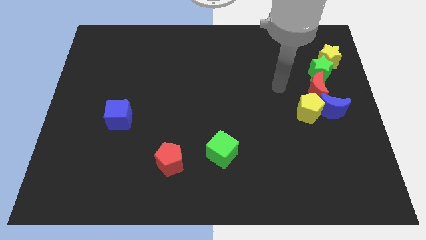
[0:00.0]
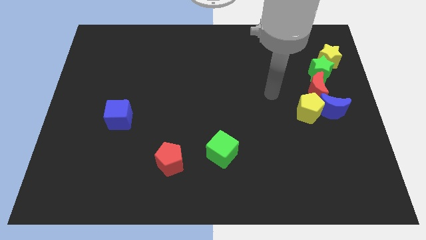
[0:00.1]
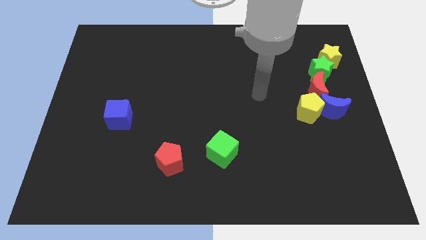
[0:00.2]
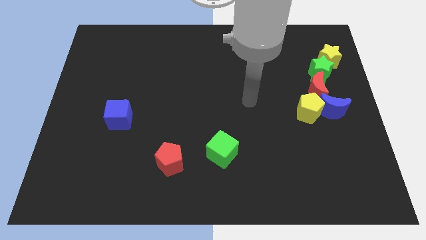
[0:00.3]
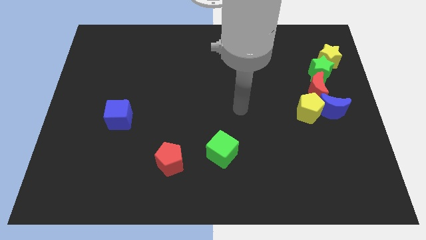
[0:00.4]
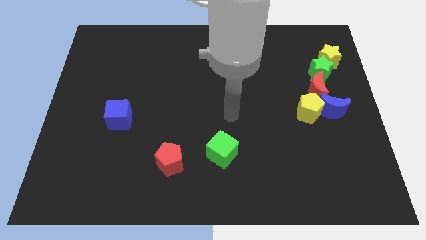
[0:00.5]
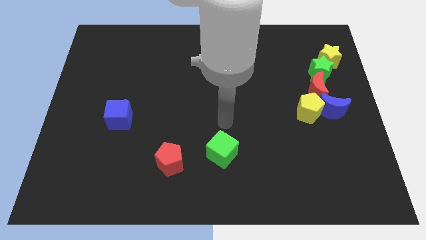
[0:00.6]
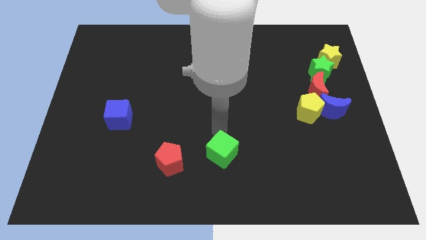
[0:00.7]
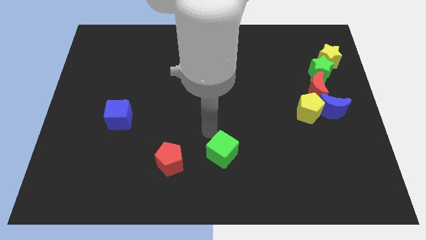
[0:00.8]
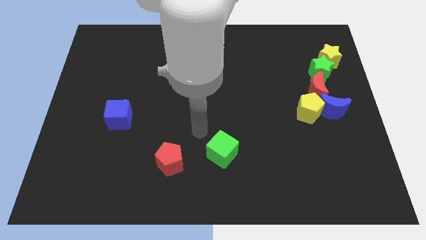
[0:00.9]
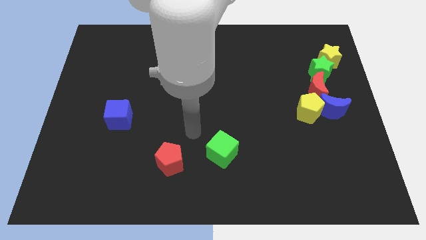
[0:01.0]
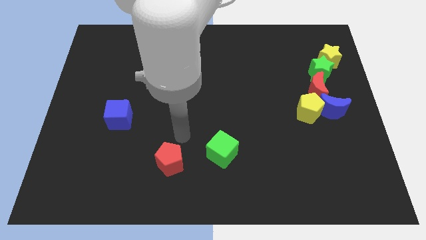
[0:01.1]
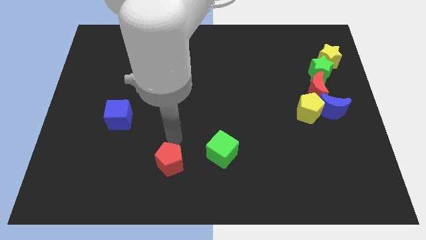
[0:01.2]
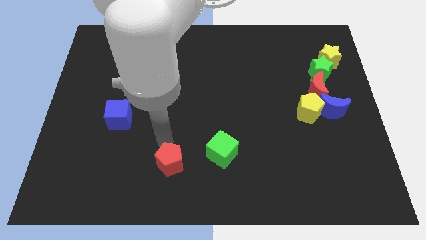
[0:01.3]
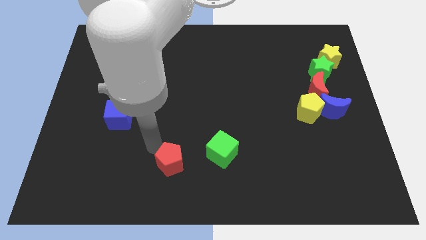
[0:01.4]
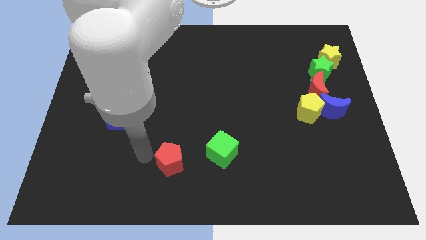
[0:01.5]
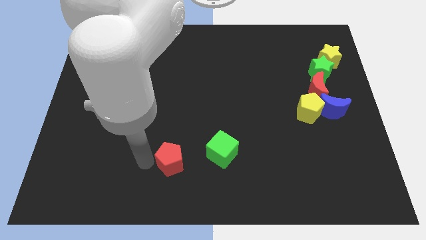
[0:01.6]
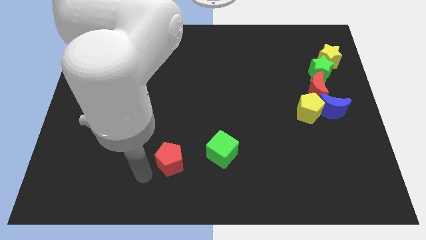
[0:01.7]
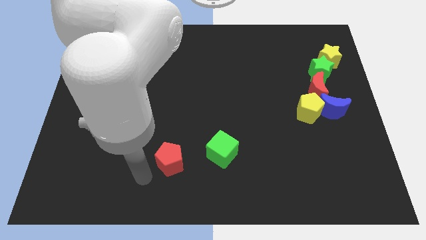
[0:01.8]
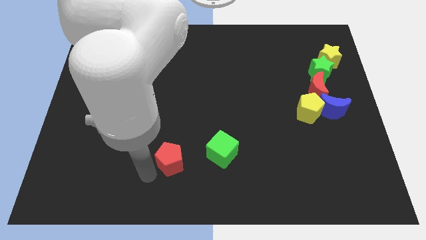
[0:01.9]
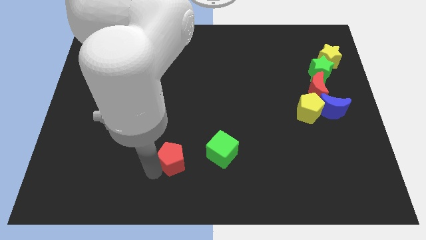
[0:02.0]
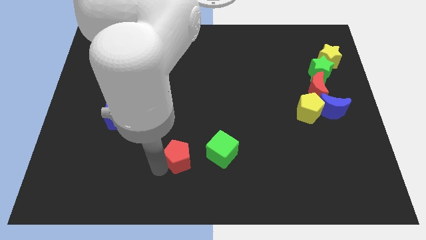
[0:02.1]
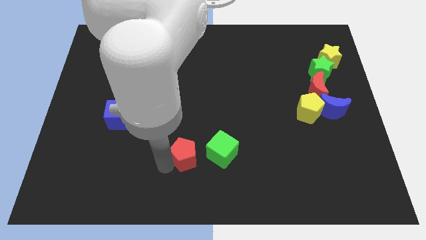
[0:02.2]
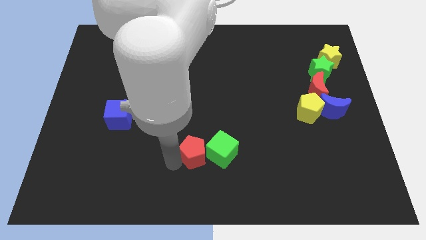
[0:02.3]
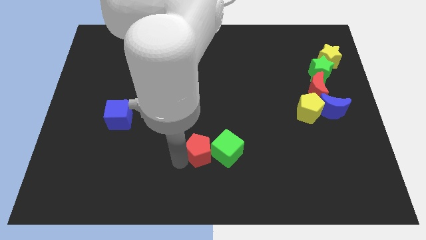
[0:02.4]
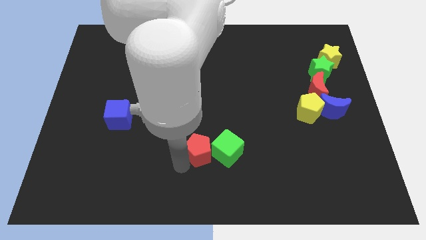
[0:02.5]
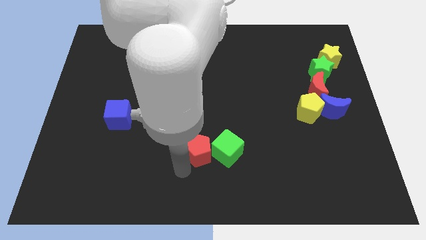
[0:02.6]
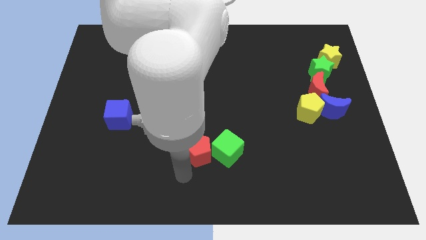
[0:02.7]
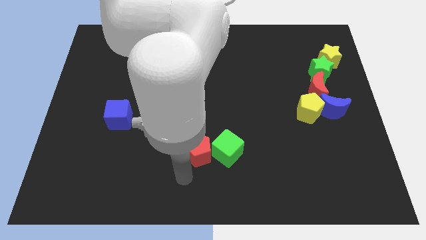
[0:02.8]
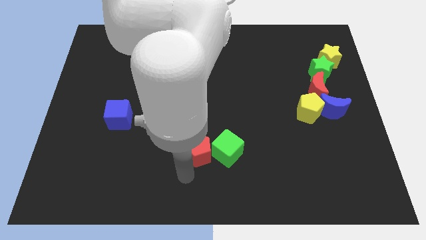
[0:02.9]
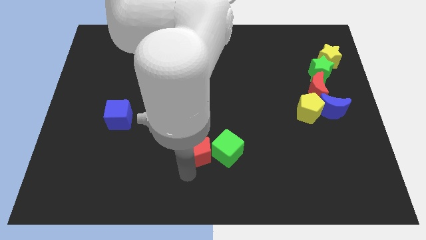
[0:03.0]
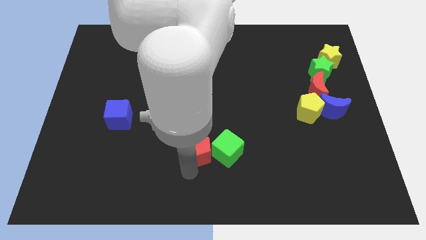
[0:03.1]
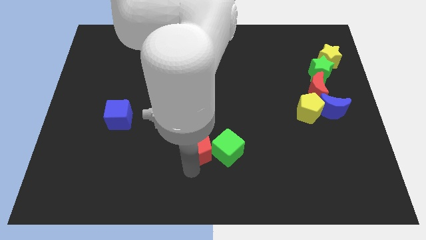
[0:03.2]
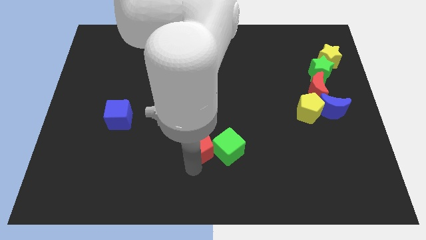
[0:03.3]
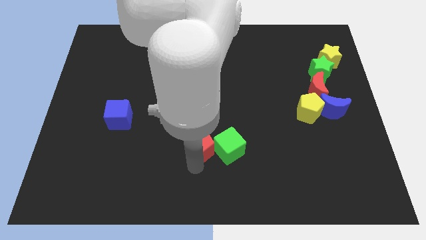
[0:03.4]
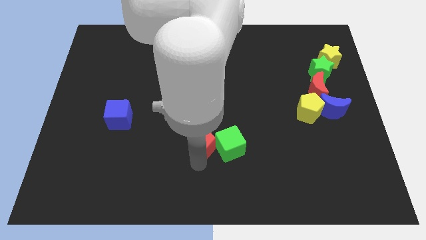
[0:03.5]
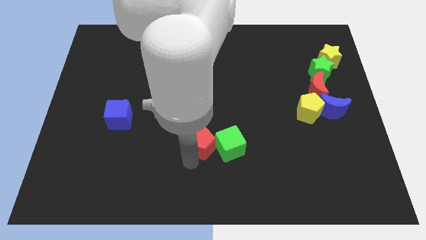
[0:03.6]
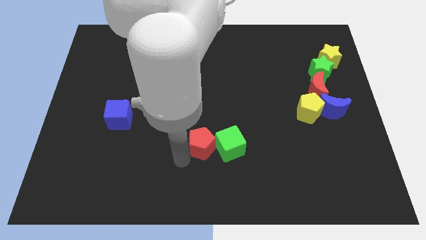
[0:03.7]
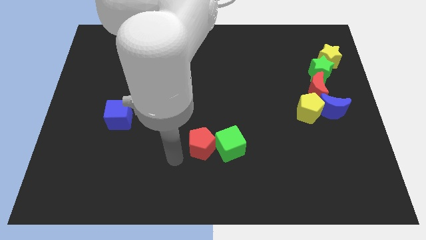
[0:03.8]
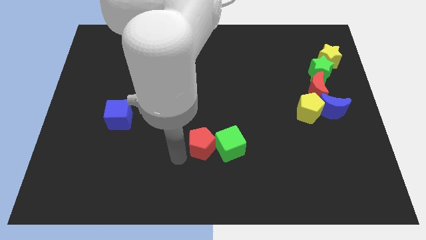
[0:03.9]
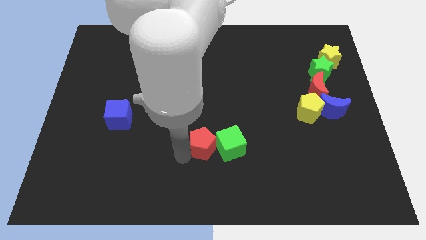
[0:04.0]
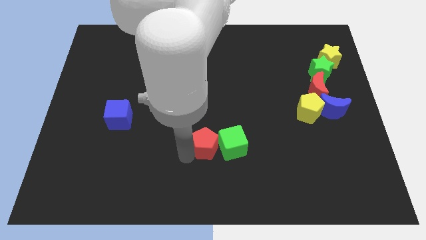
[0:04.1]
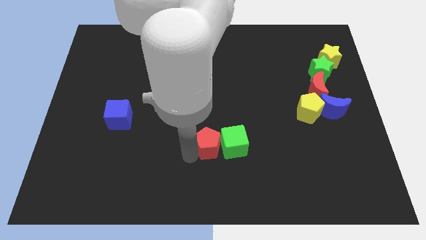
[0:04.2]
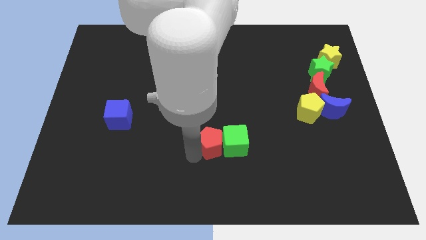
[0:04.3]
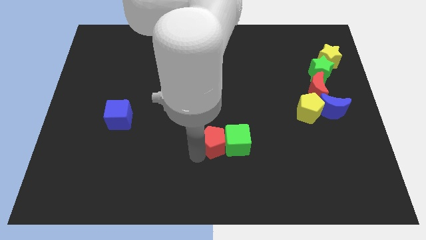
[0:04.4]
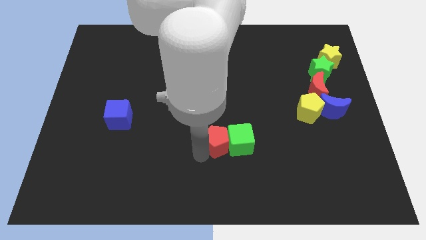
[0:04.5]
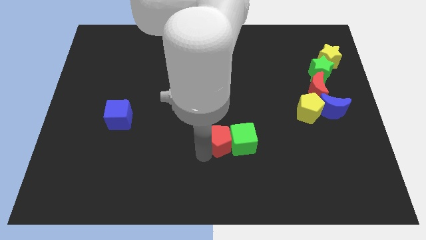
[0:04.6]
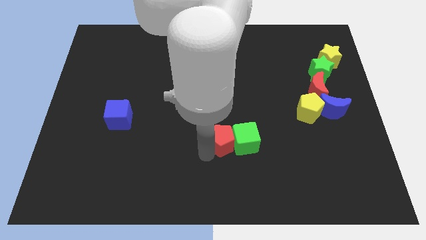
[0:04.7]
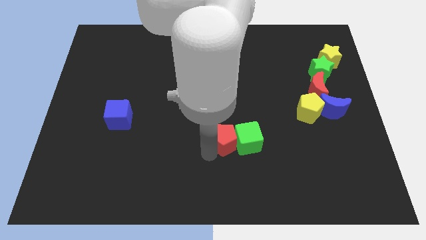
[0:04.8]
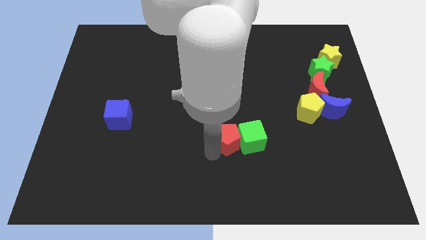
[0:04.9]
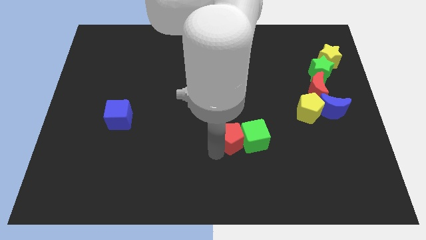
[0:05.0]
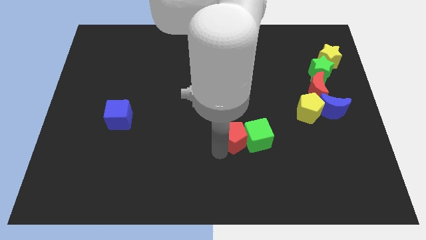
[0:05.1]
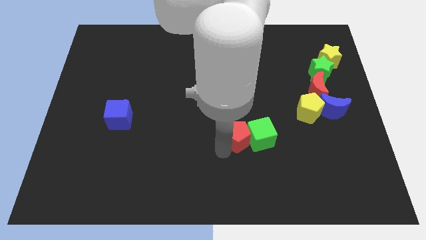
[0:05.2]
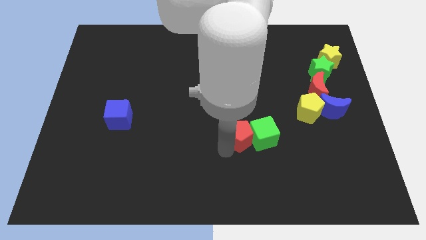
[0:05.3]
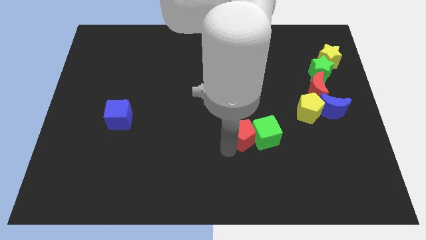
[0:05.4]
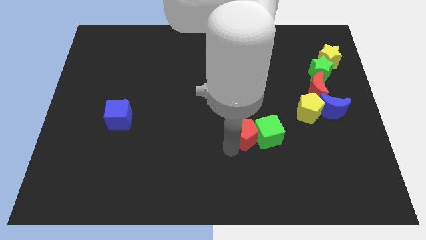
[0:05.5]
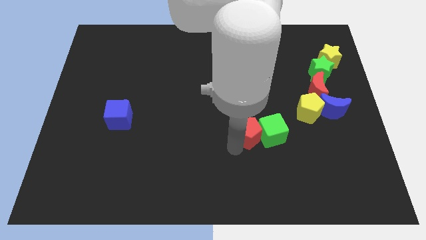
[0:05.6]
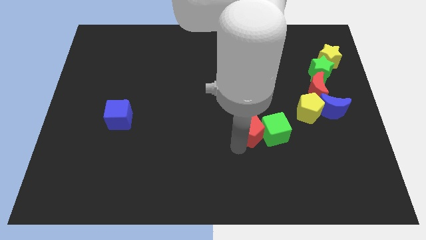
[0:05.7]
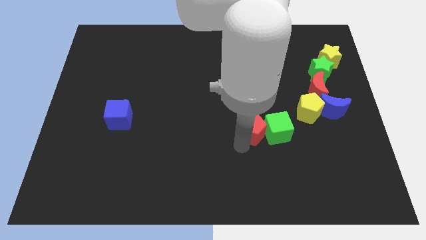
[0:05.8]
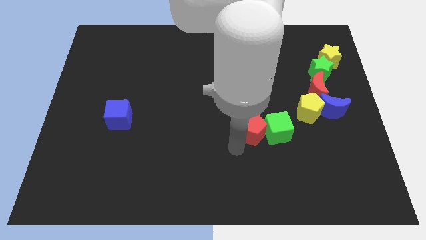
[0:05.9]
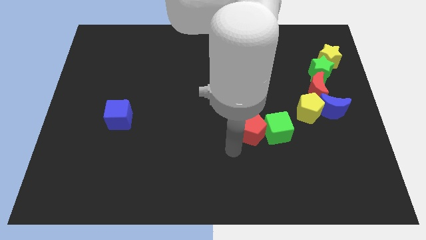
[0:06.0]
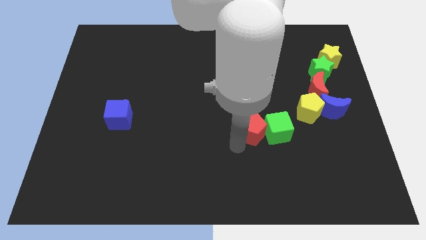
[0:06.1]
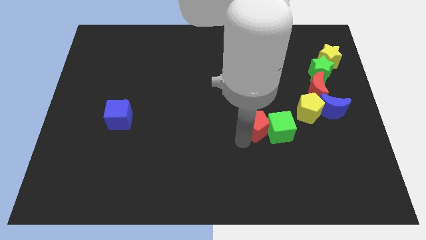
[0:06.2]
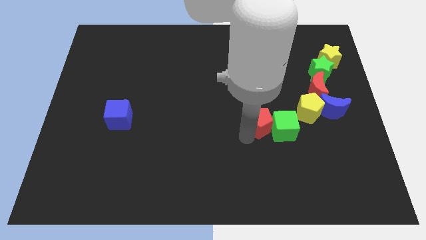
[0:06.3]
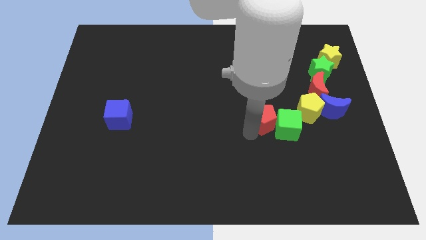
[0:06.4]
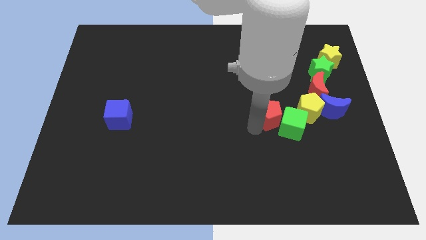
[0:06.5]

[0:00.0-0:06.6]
slide the red pentagon to the left side of the blue moon
